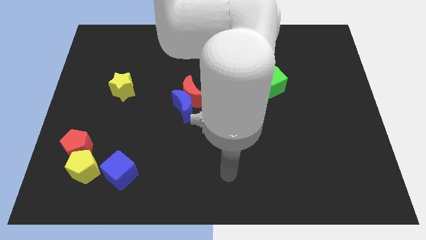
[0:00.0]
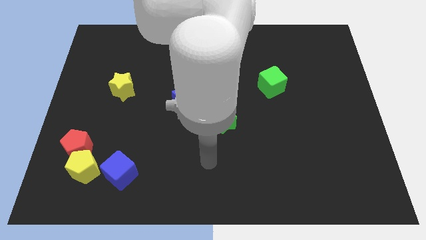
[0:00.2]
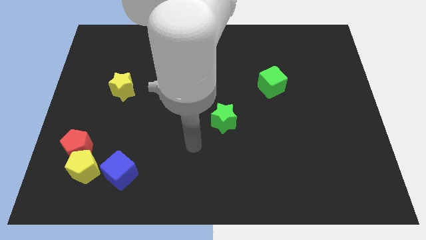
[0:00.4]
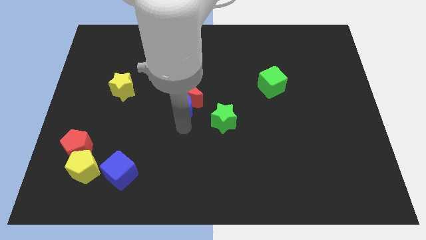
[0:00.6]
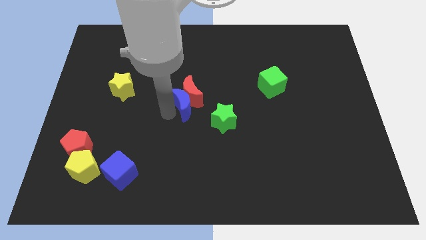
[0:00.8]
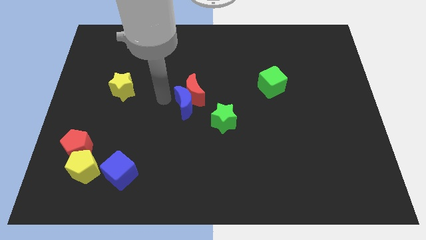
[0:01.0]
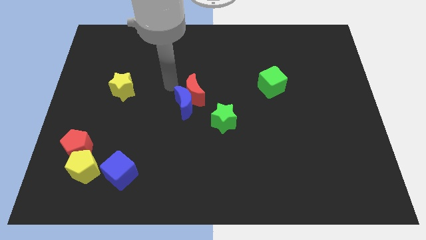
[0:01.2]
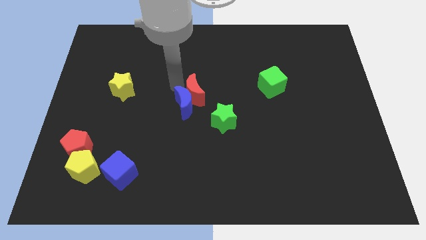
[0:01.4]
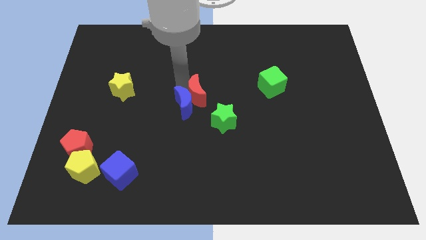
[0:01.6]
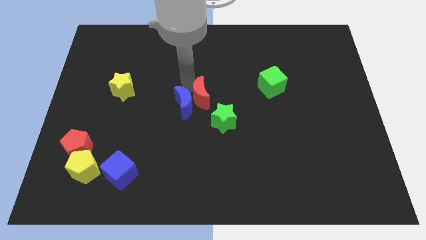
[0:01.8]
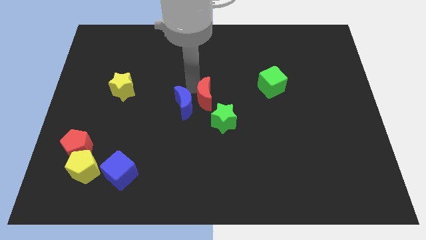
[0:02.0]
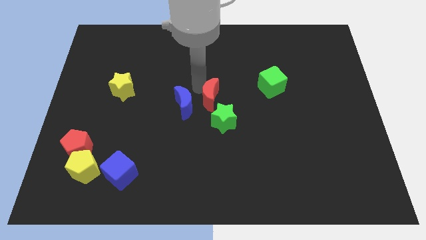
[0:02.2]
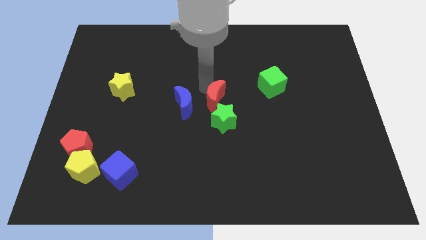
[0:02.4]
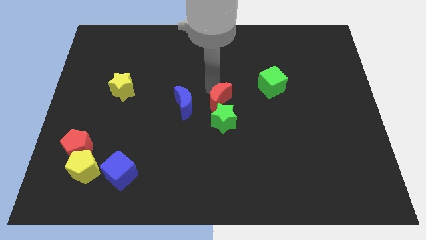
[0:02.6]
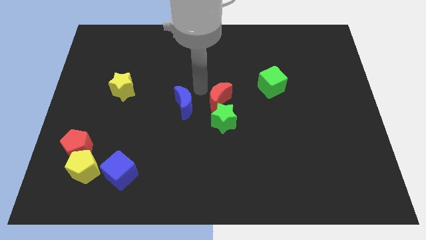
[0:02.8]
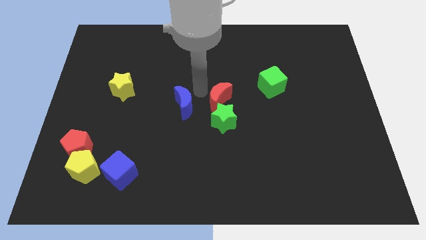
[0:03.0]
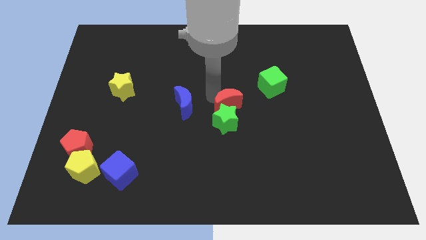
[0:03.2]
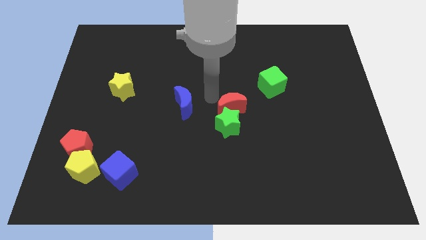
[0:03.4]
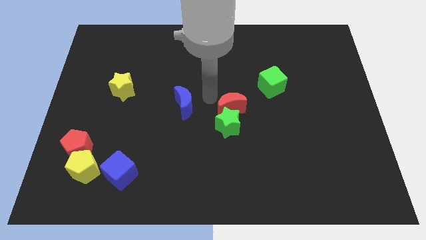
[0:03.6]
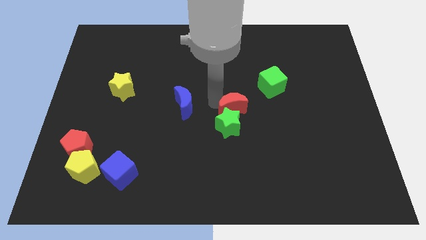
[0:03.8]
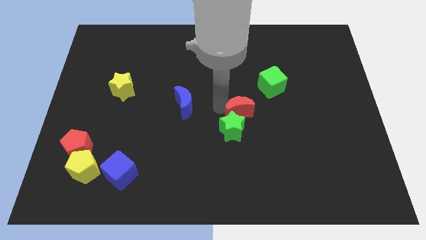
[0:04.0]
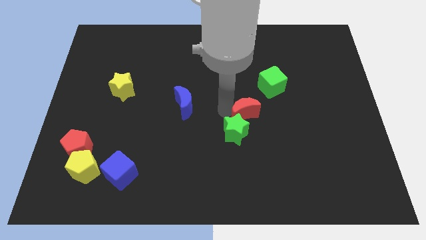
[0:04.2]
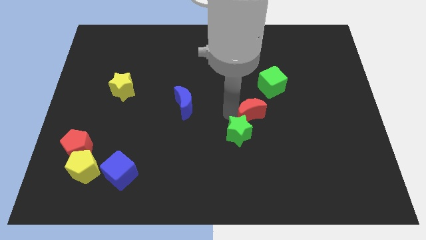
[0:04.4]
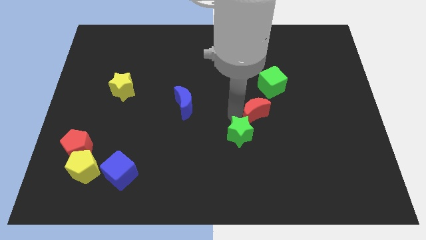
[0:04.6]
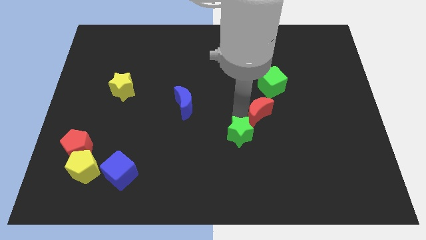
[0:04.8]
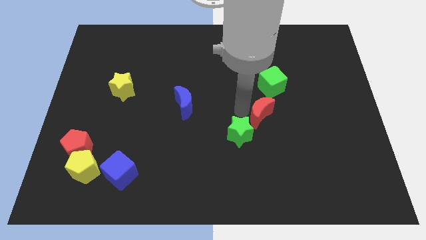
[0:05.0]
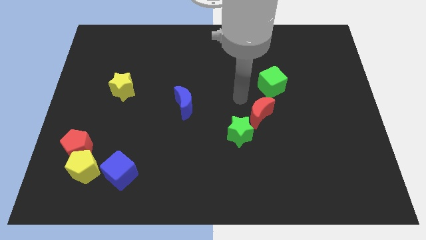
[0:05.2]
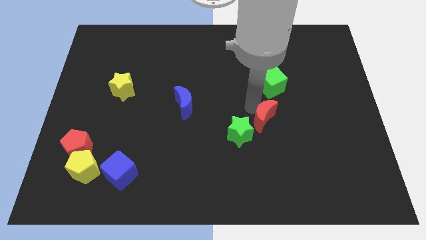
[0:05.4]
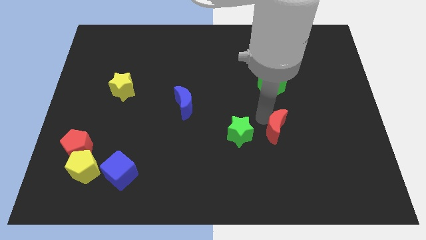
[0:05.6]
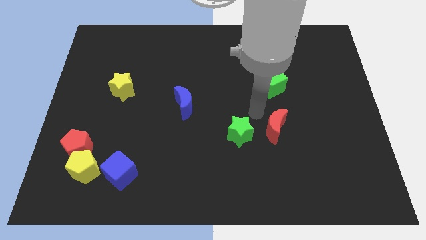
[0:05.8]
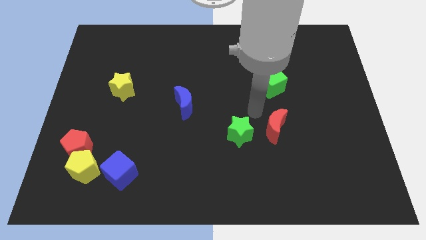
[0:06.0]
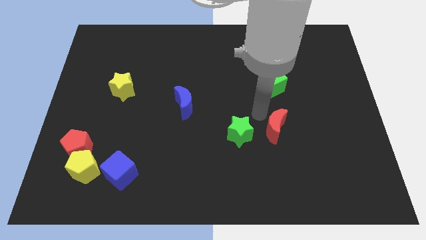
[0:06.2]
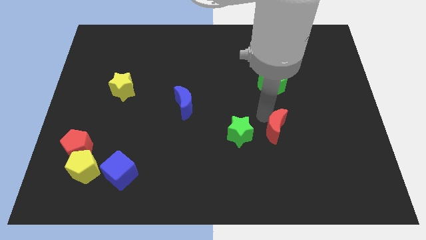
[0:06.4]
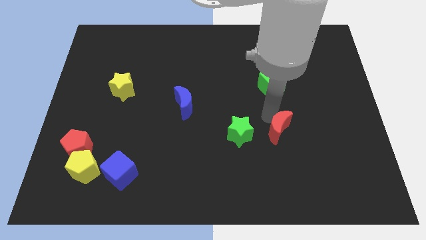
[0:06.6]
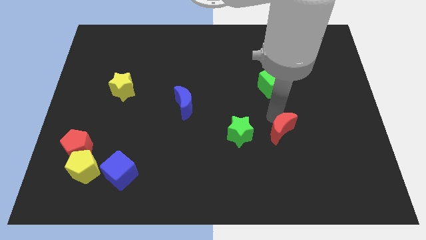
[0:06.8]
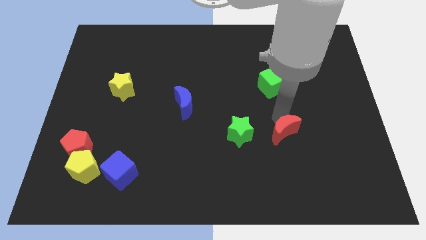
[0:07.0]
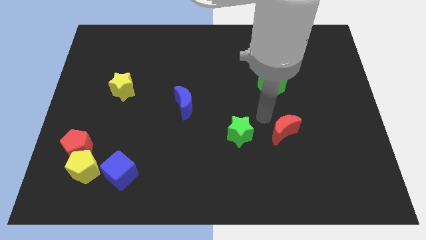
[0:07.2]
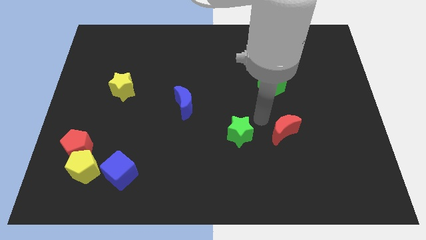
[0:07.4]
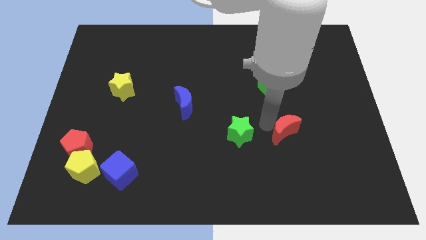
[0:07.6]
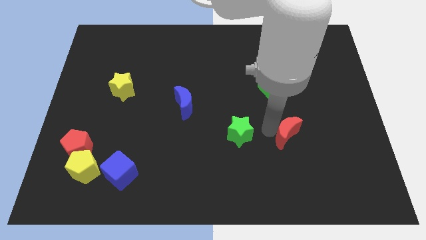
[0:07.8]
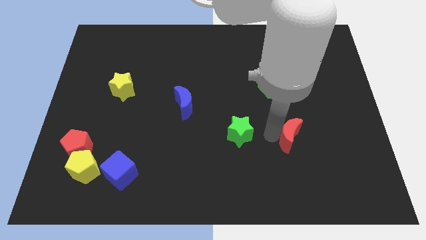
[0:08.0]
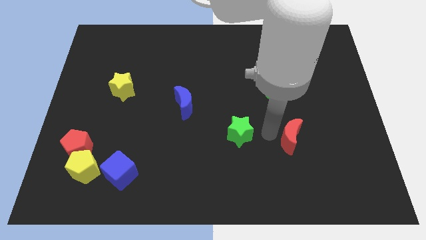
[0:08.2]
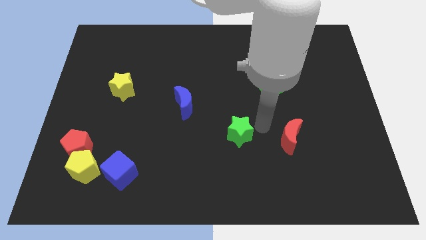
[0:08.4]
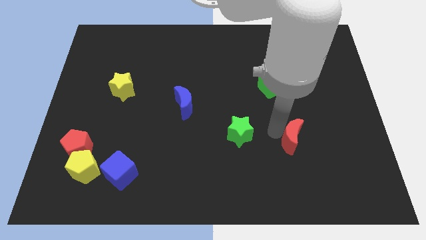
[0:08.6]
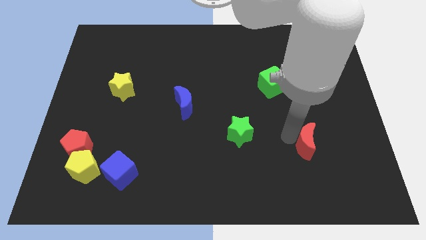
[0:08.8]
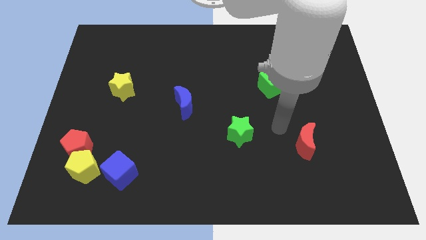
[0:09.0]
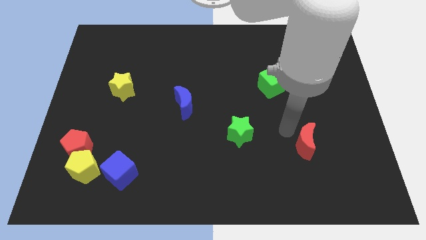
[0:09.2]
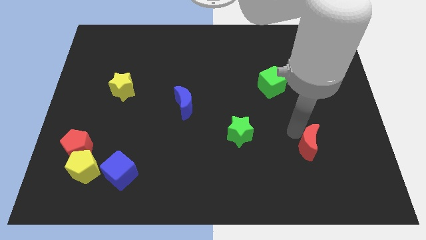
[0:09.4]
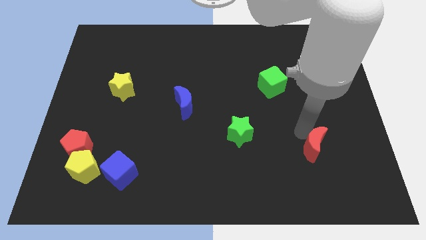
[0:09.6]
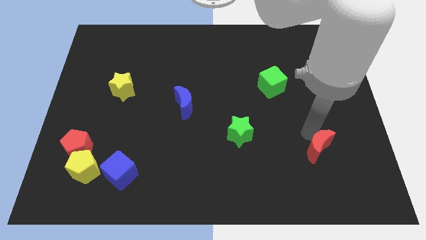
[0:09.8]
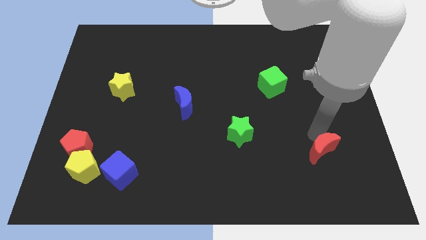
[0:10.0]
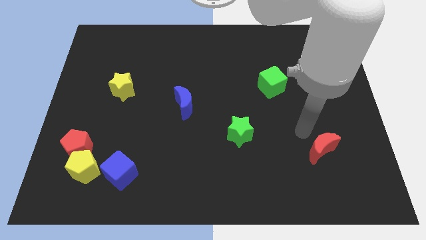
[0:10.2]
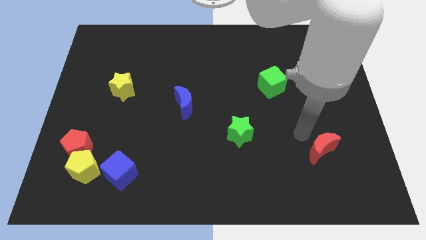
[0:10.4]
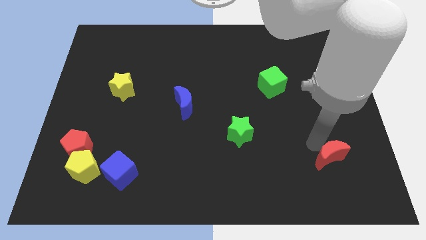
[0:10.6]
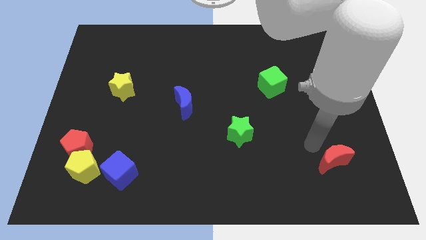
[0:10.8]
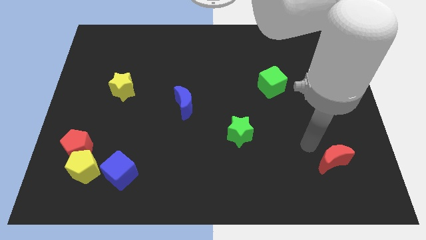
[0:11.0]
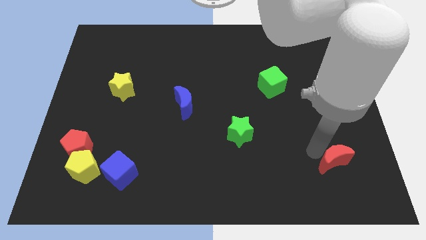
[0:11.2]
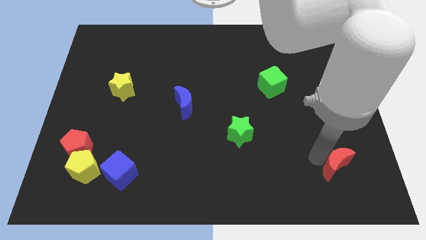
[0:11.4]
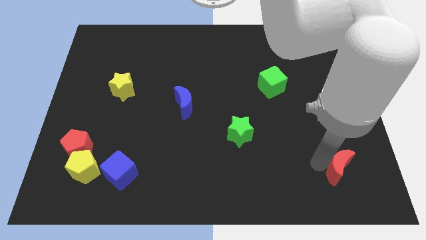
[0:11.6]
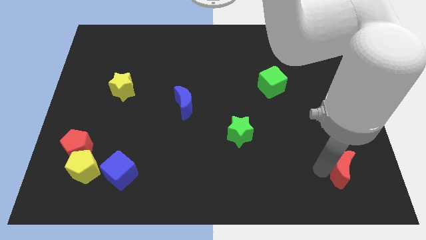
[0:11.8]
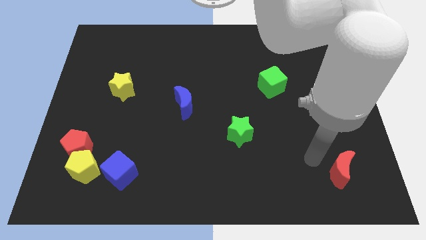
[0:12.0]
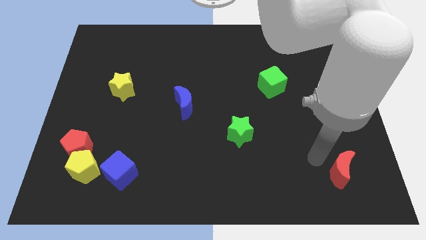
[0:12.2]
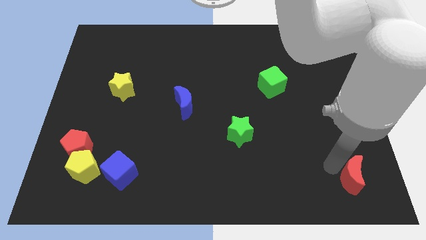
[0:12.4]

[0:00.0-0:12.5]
push the red moon to the bottom right corner
